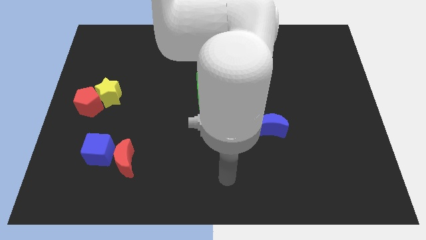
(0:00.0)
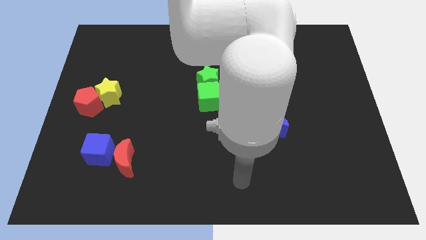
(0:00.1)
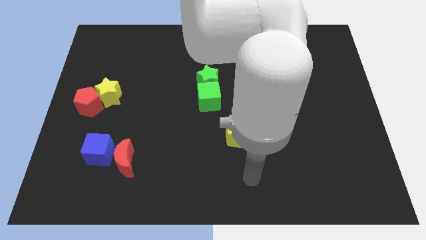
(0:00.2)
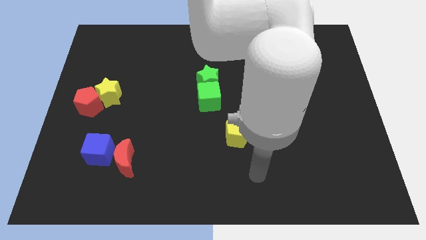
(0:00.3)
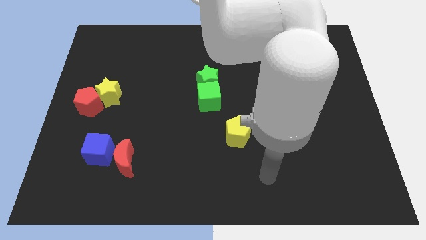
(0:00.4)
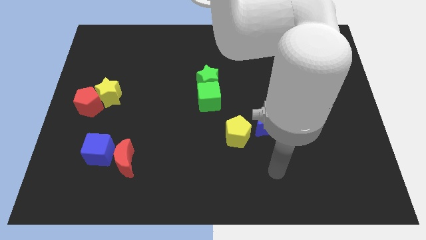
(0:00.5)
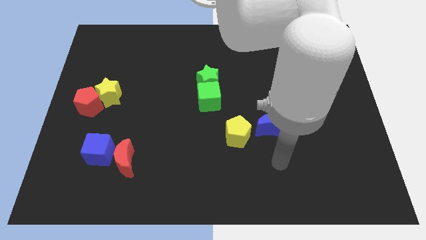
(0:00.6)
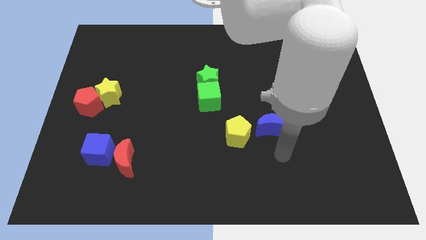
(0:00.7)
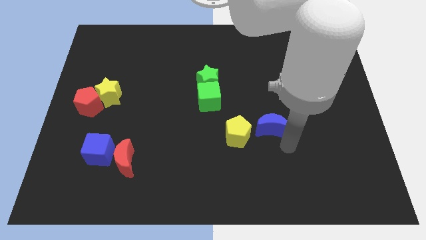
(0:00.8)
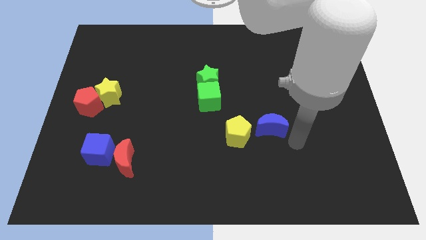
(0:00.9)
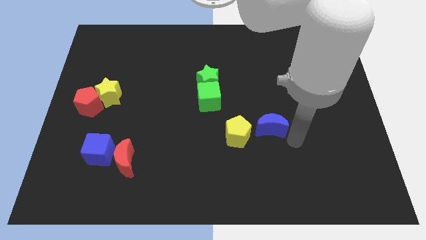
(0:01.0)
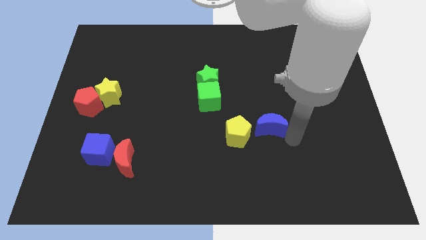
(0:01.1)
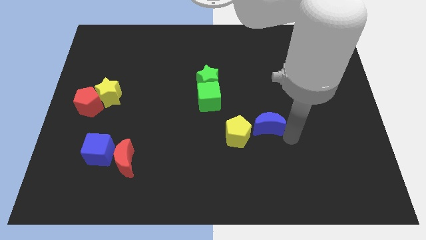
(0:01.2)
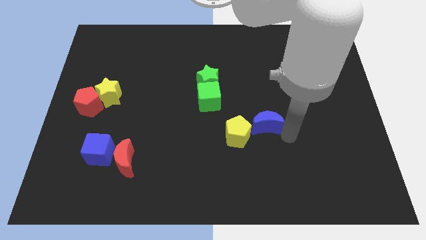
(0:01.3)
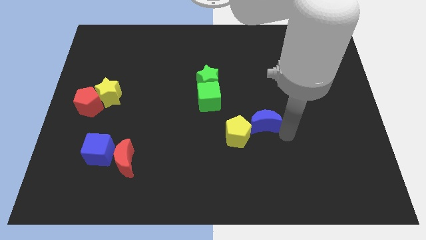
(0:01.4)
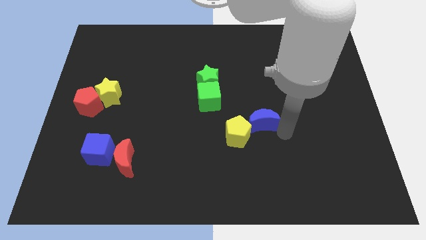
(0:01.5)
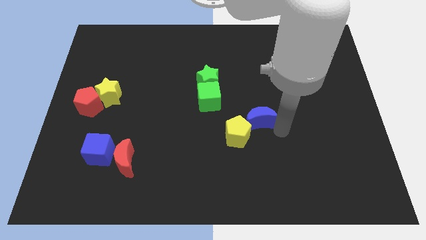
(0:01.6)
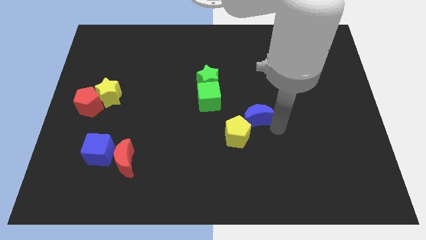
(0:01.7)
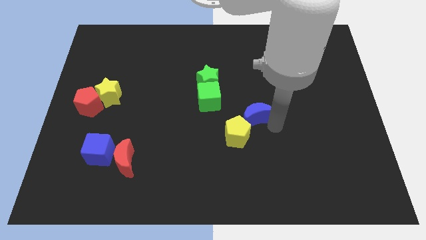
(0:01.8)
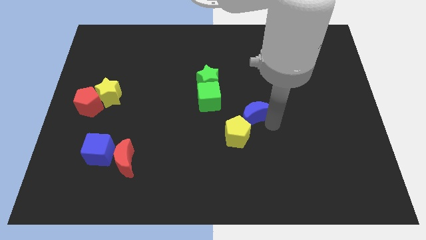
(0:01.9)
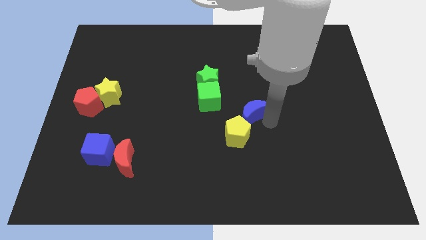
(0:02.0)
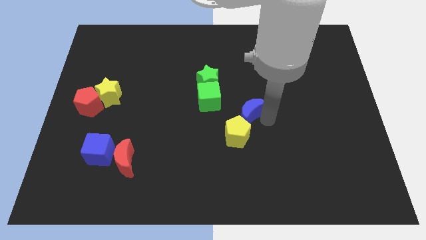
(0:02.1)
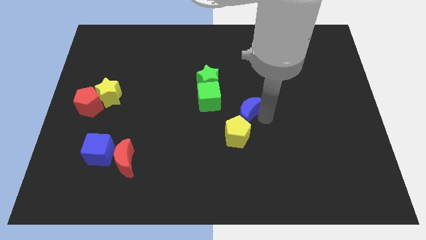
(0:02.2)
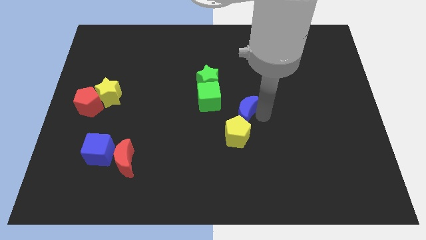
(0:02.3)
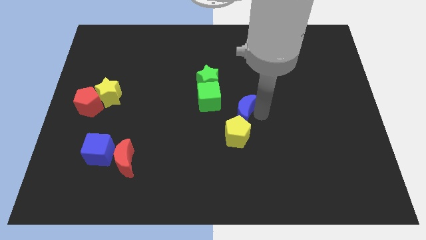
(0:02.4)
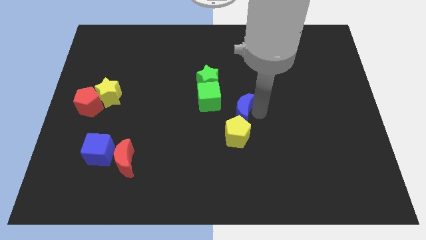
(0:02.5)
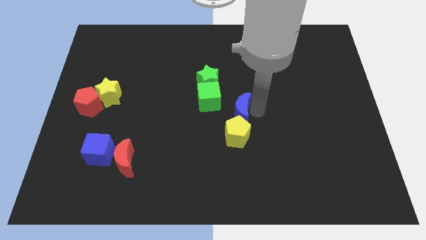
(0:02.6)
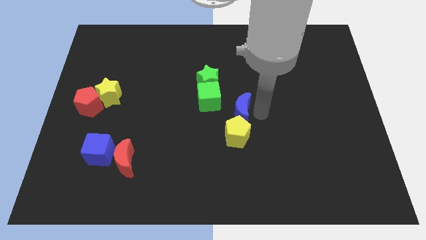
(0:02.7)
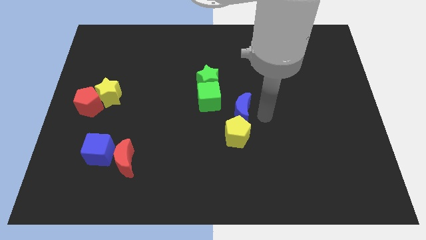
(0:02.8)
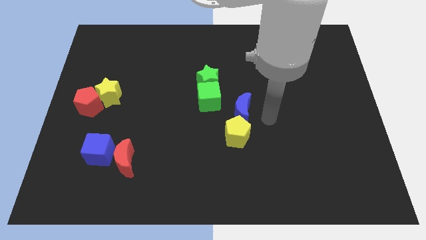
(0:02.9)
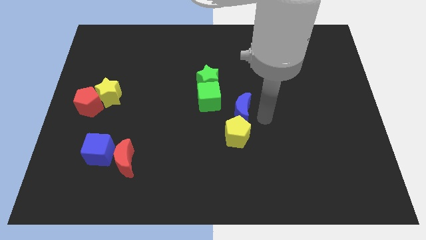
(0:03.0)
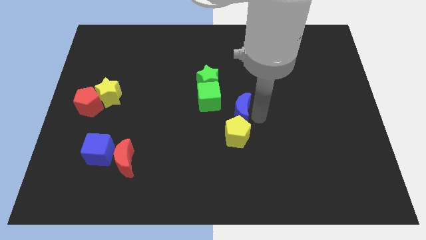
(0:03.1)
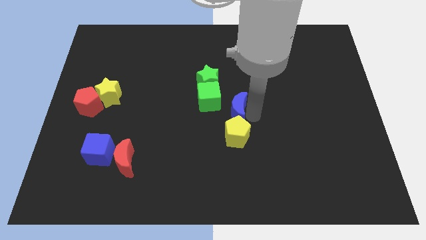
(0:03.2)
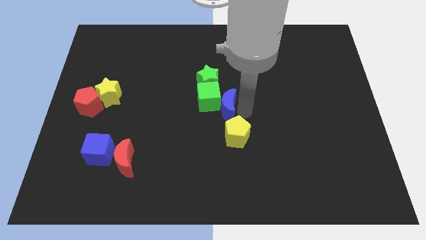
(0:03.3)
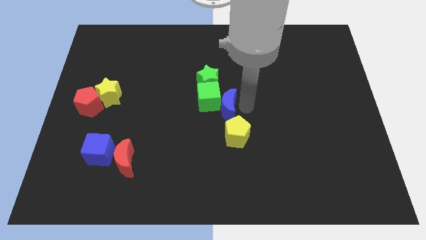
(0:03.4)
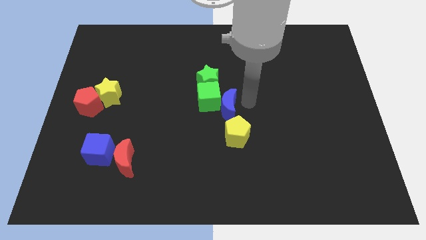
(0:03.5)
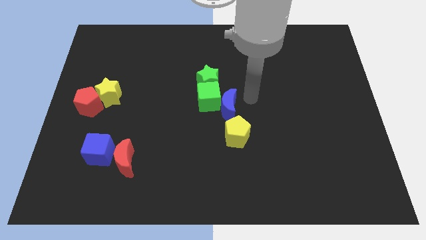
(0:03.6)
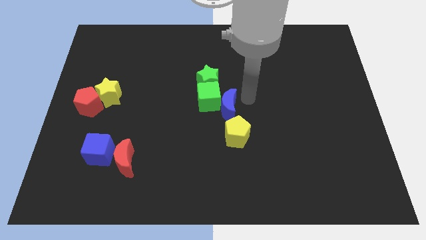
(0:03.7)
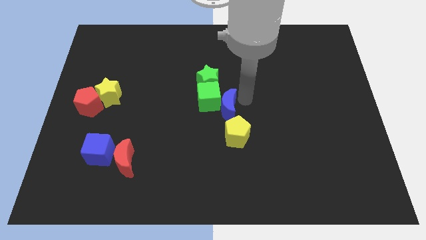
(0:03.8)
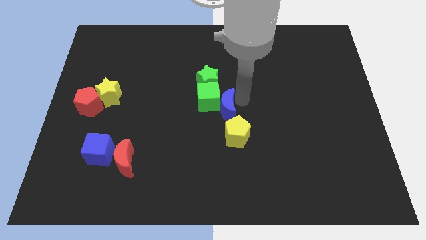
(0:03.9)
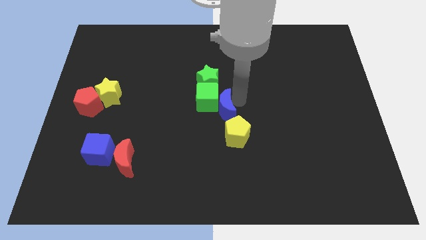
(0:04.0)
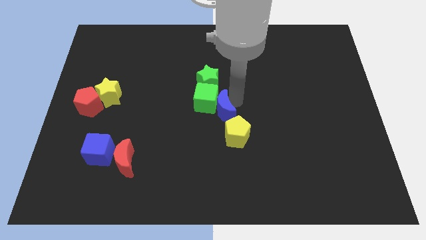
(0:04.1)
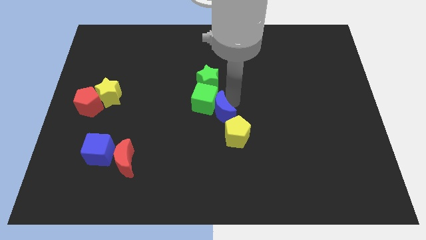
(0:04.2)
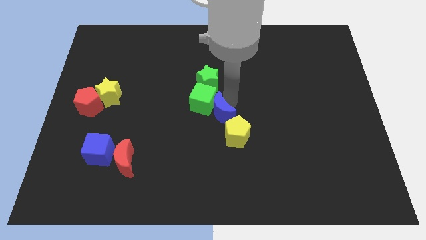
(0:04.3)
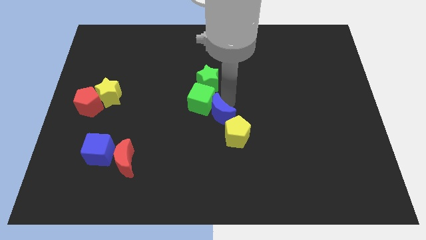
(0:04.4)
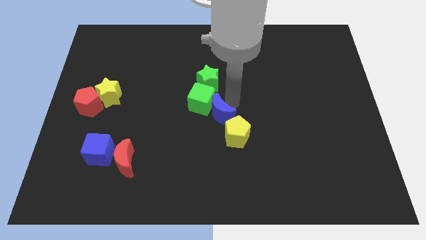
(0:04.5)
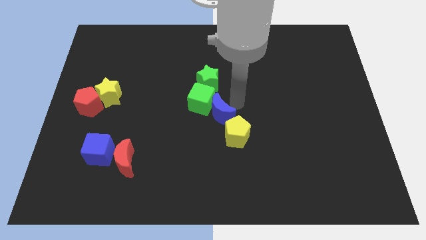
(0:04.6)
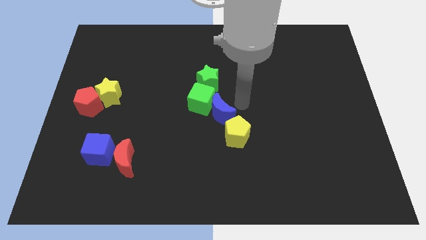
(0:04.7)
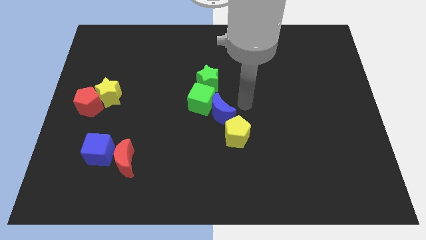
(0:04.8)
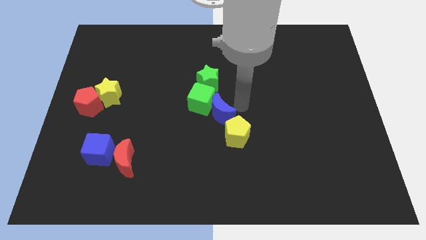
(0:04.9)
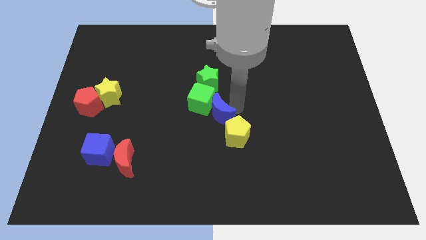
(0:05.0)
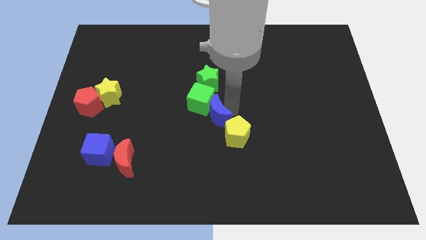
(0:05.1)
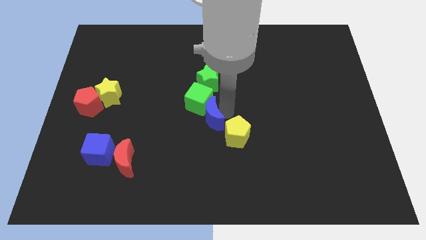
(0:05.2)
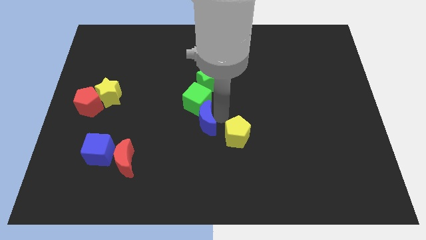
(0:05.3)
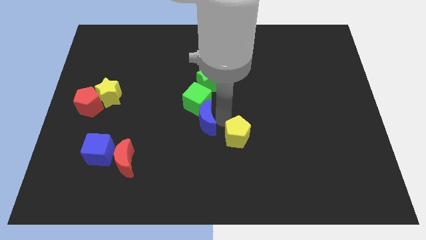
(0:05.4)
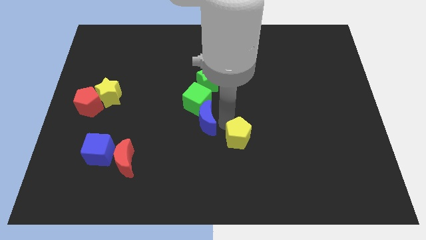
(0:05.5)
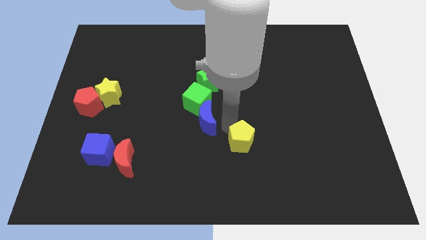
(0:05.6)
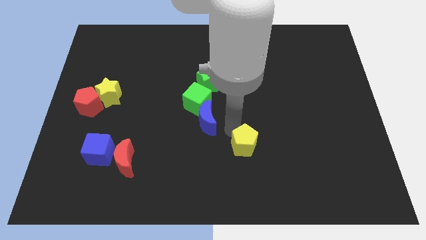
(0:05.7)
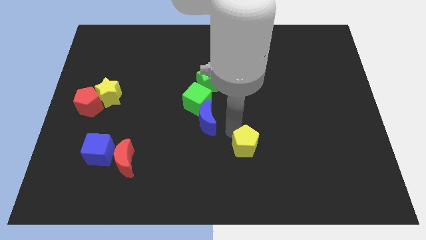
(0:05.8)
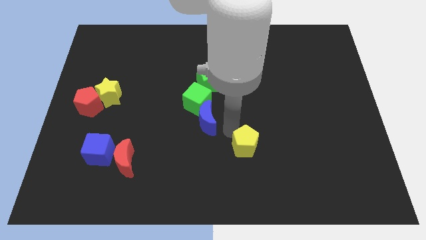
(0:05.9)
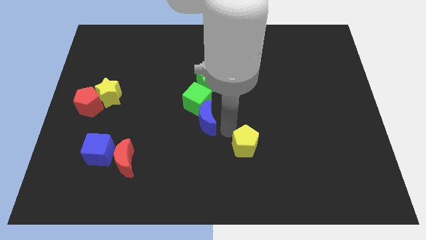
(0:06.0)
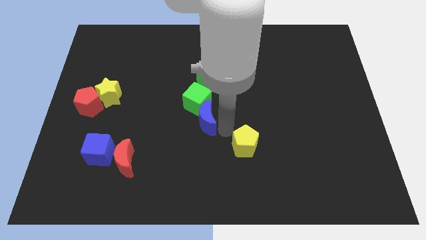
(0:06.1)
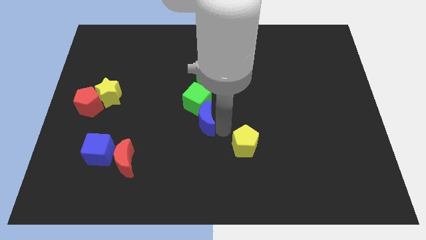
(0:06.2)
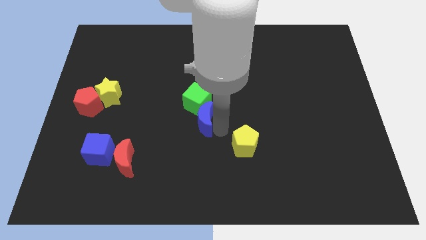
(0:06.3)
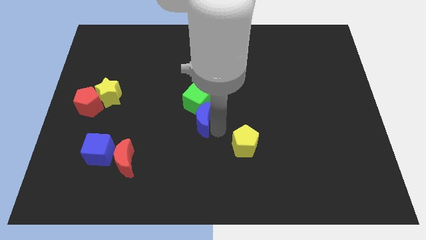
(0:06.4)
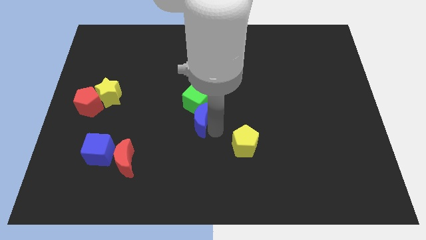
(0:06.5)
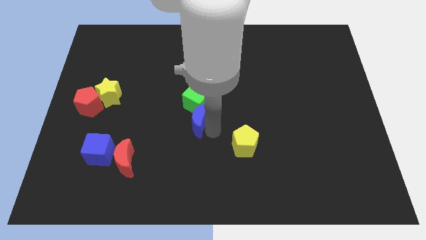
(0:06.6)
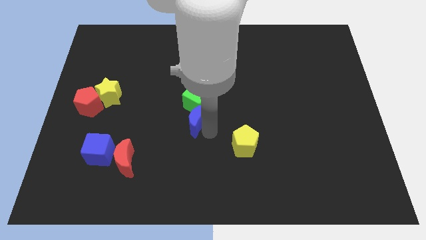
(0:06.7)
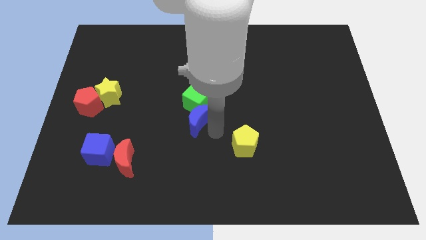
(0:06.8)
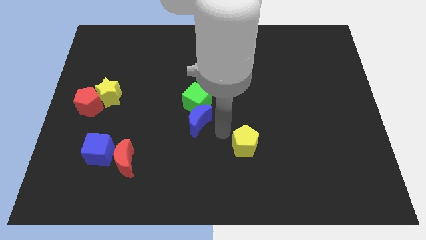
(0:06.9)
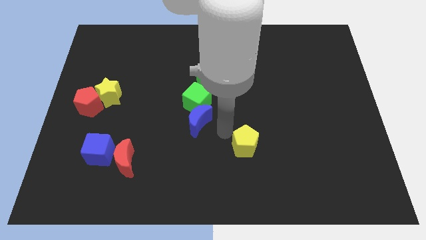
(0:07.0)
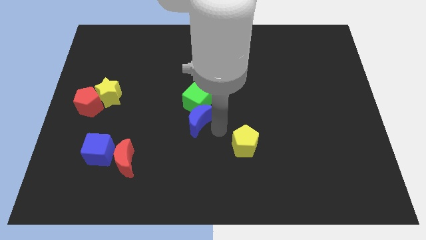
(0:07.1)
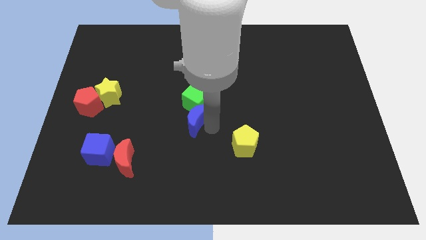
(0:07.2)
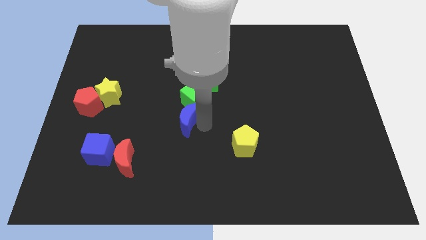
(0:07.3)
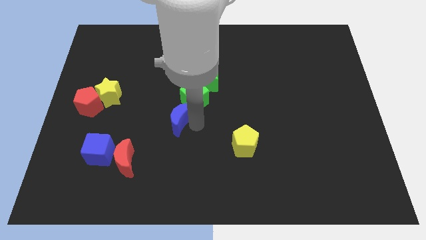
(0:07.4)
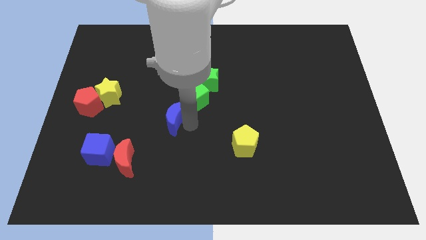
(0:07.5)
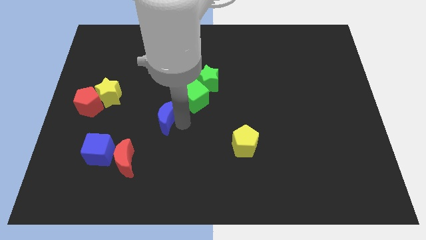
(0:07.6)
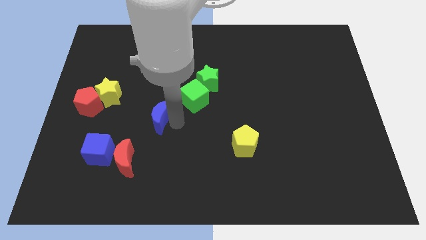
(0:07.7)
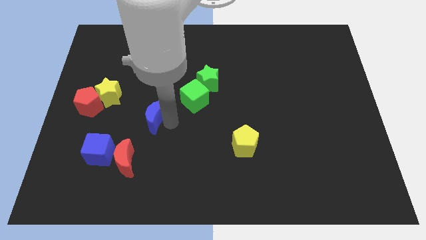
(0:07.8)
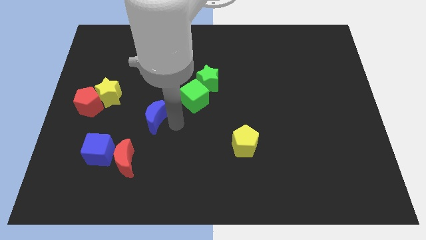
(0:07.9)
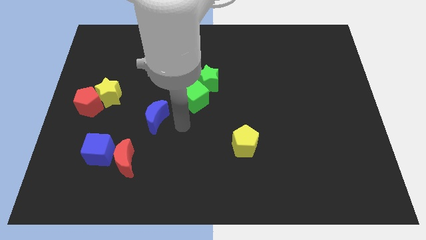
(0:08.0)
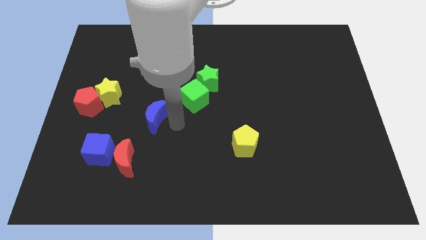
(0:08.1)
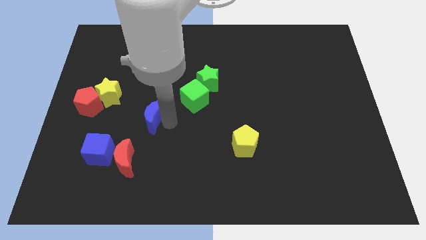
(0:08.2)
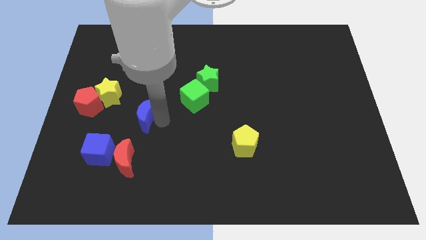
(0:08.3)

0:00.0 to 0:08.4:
slide the blue moon diagonally down and to the right of the yellow star
